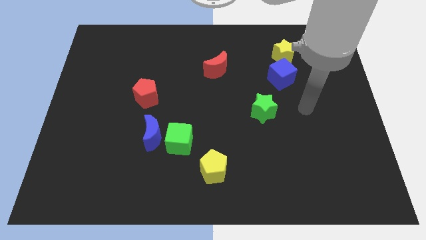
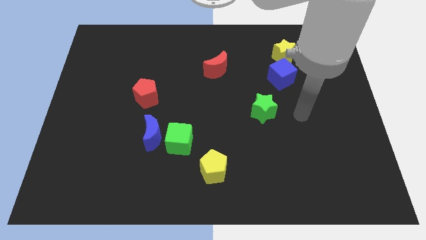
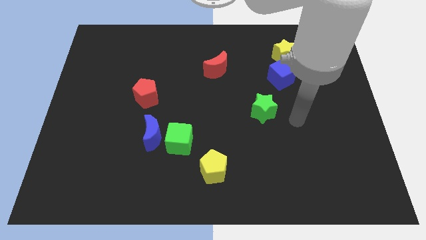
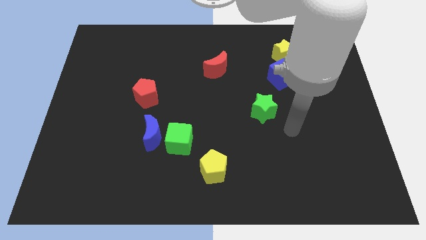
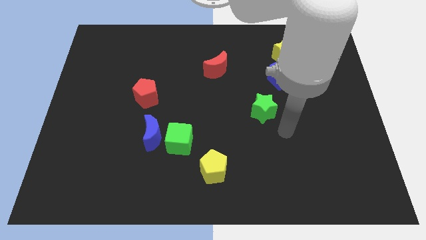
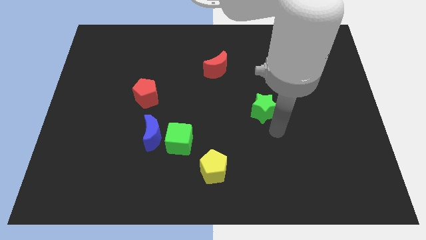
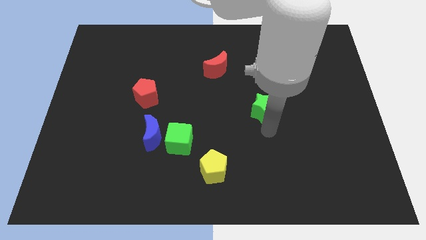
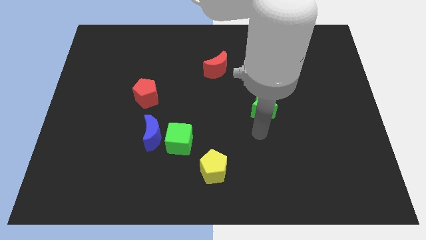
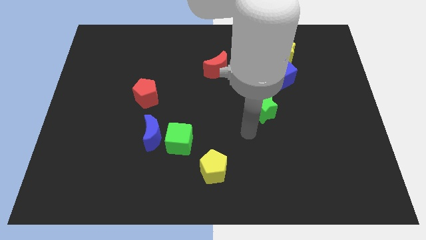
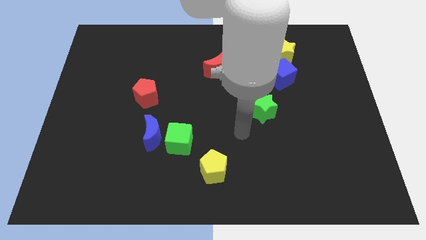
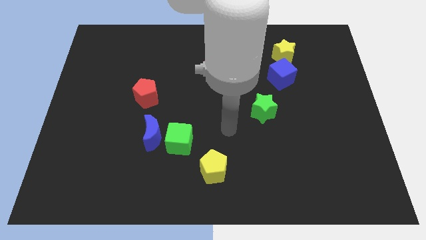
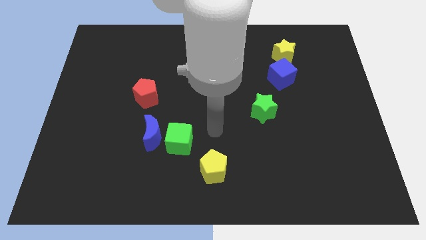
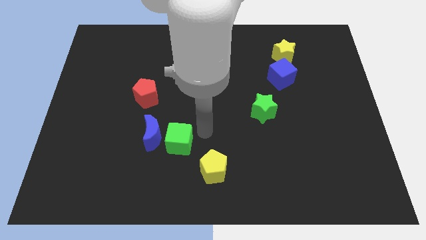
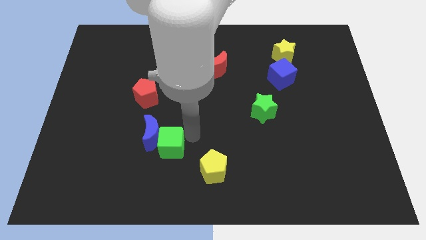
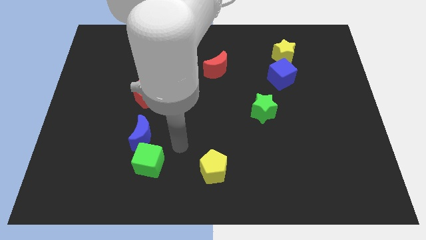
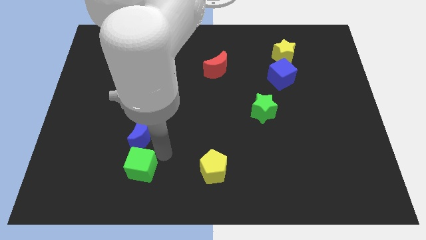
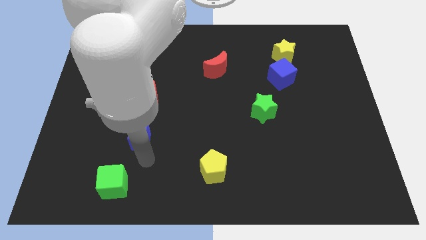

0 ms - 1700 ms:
move the blue moon away from the green cube

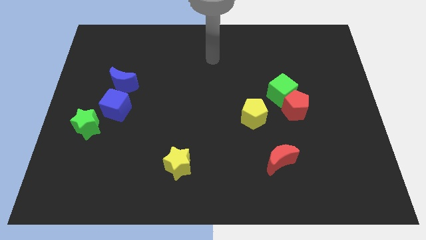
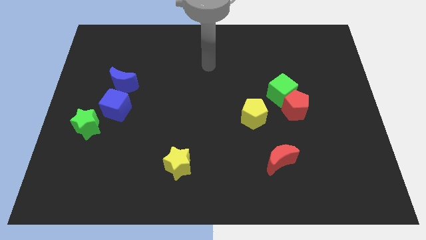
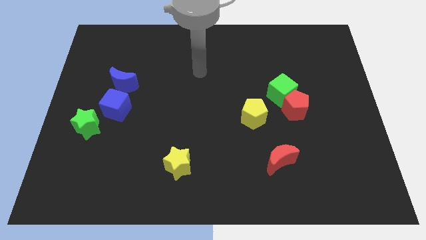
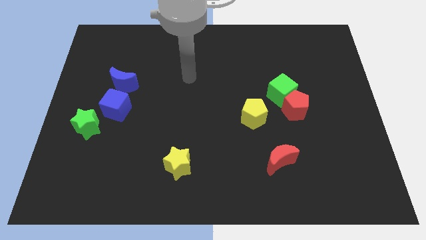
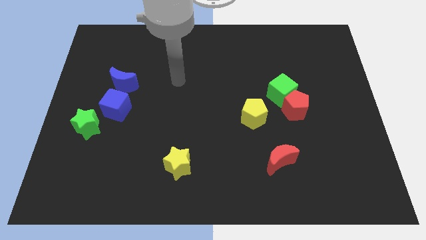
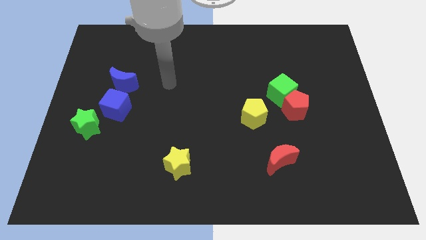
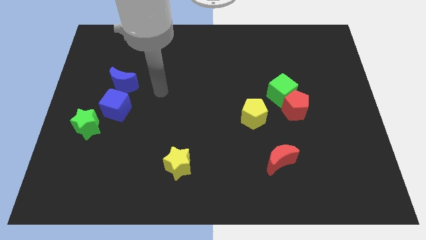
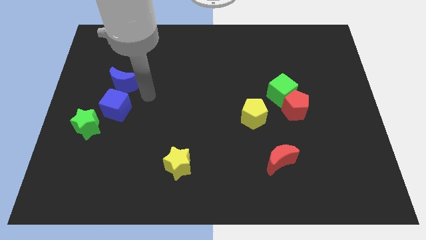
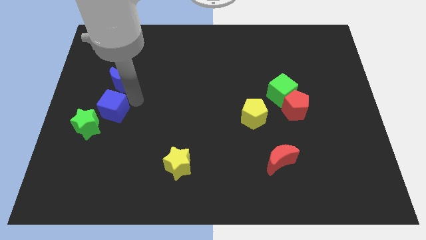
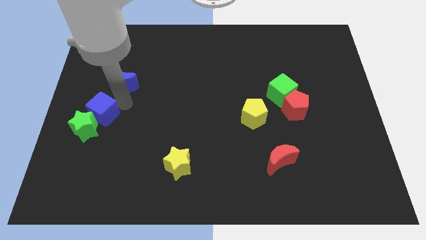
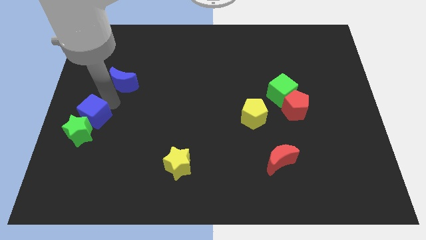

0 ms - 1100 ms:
move the blue moon away from the blue cube

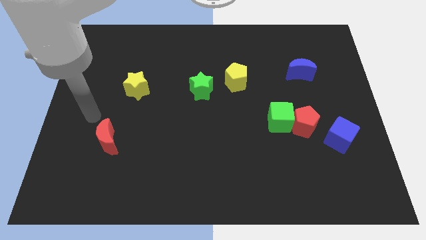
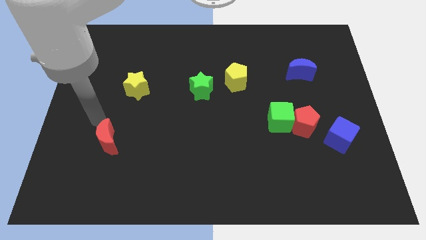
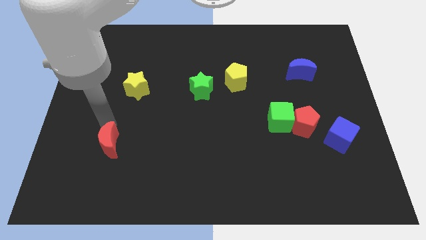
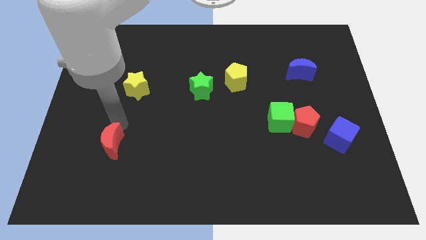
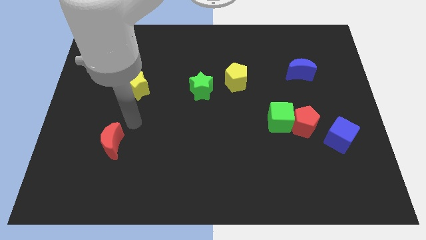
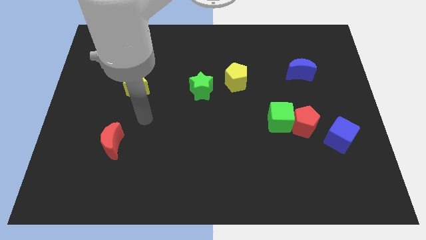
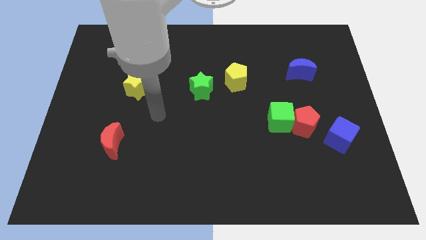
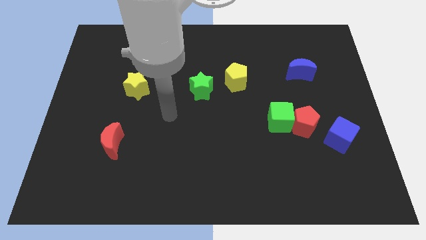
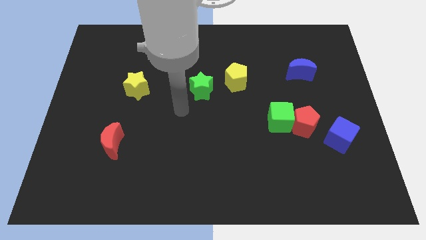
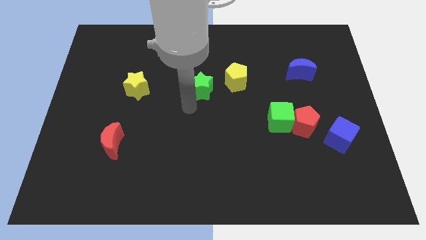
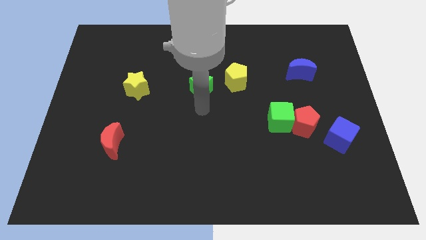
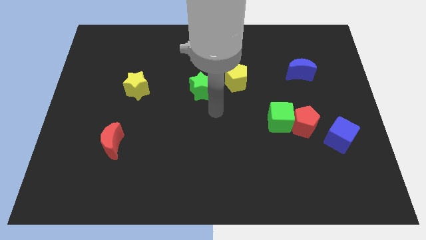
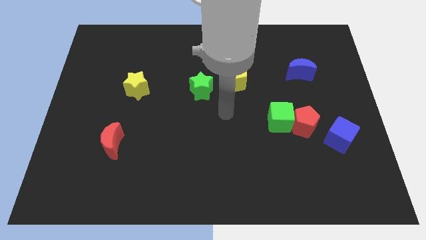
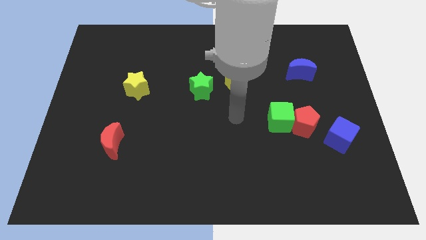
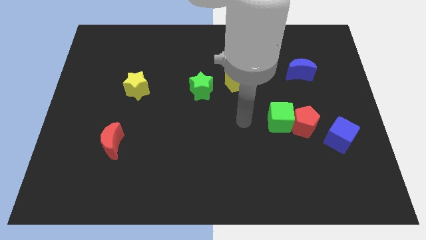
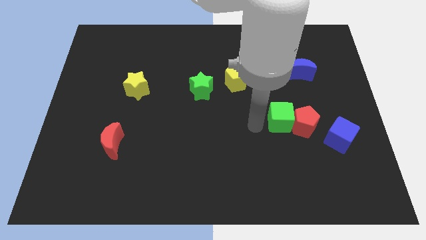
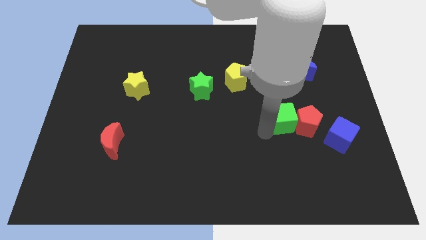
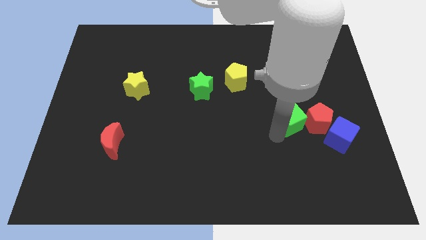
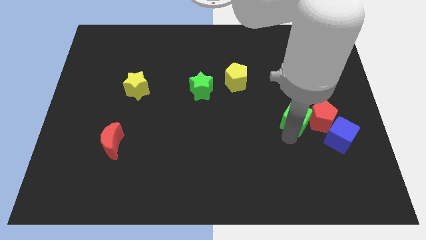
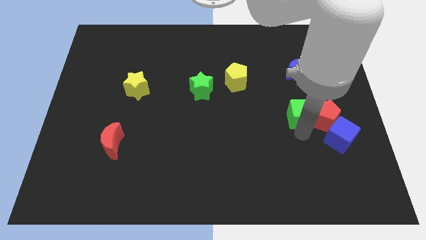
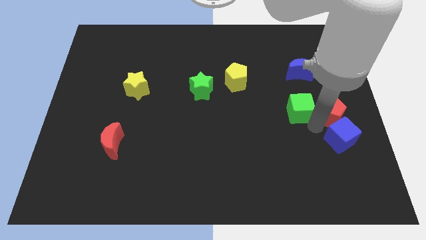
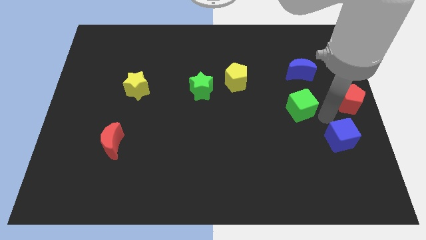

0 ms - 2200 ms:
separate the green cube from the red pentagon

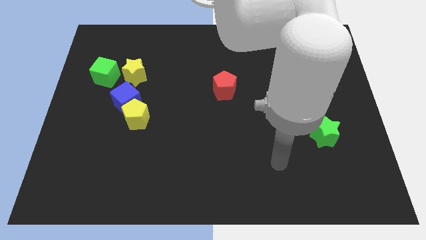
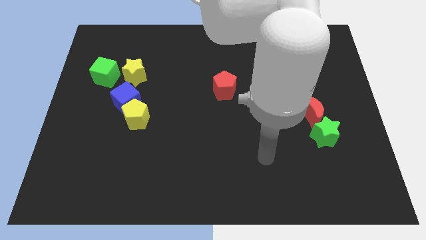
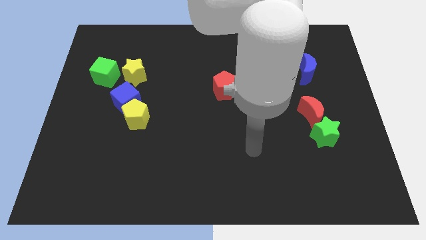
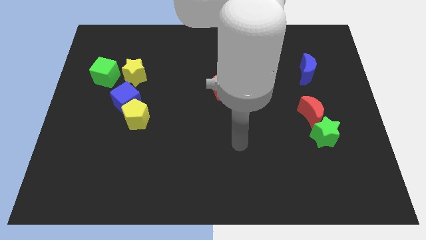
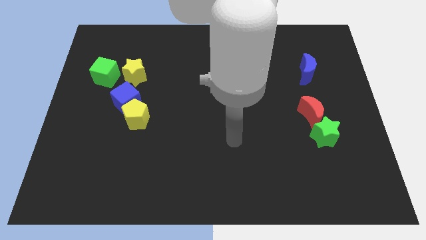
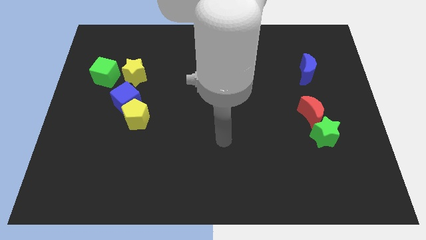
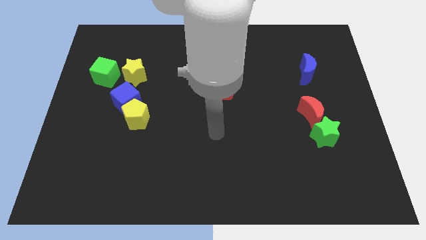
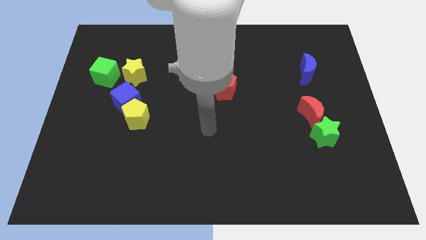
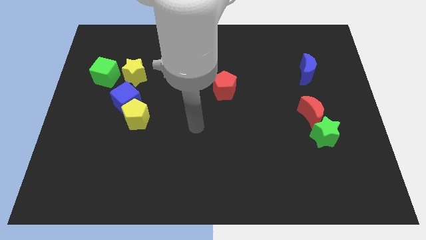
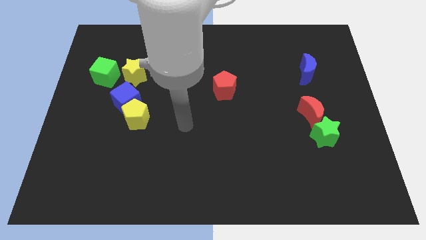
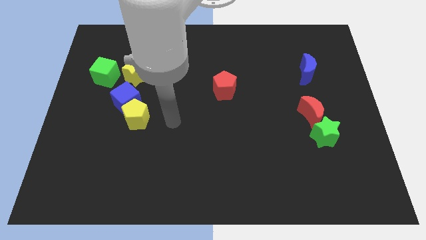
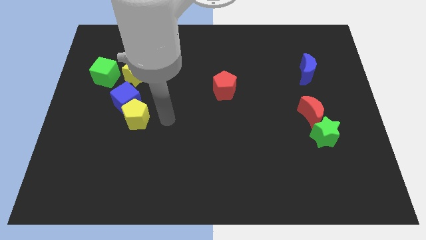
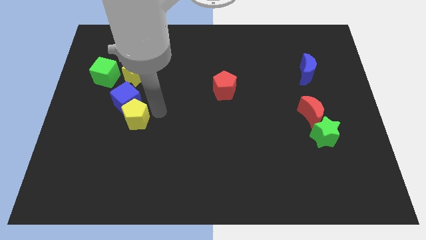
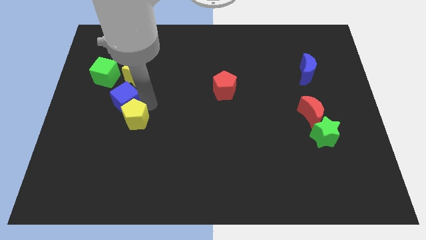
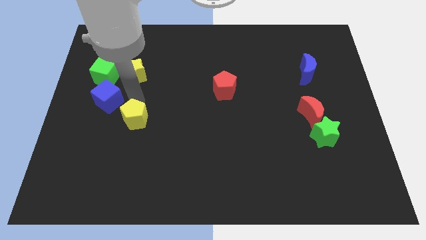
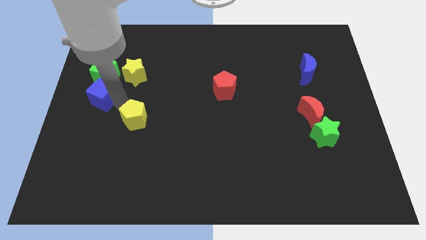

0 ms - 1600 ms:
separate the yellow pentagon from the blue cube

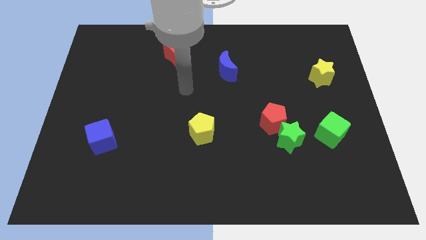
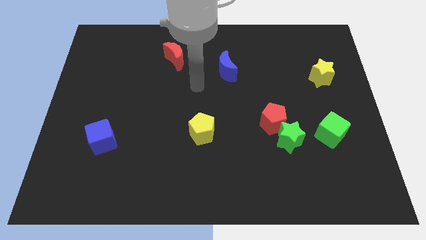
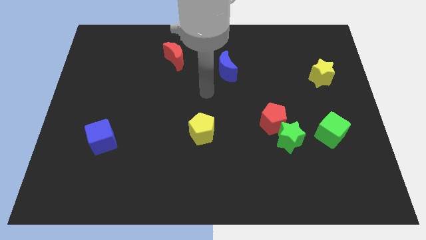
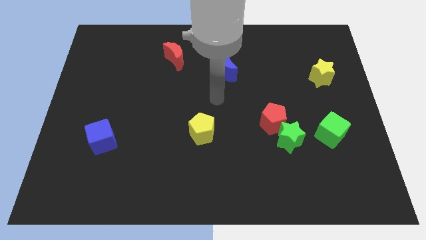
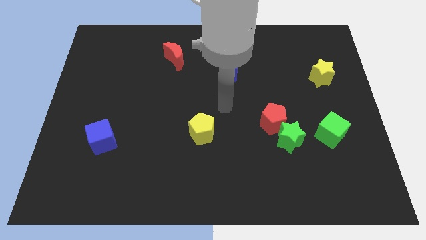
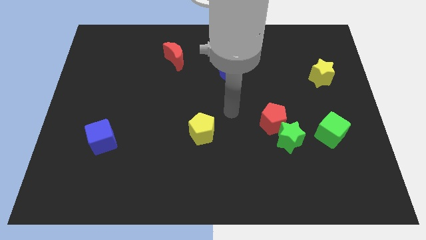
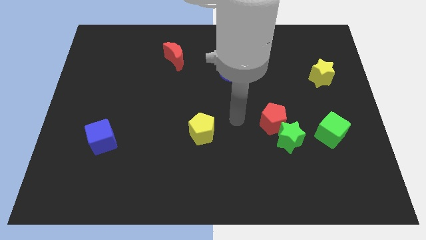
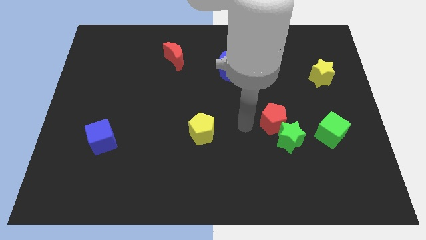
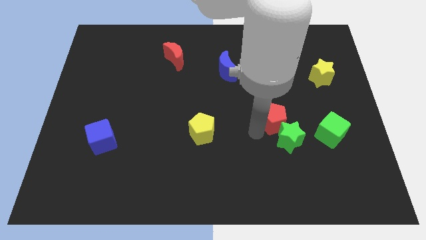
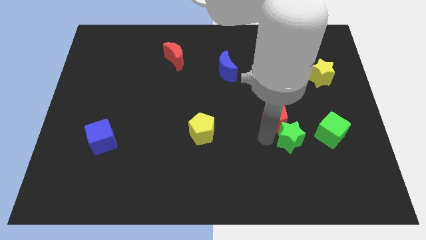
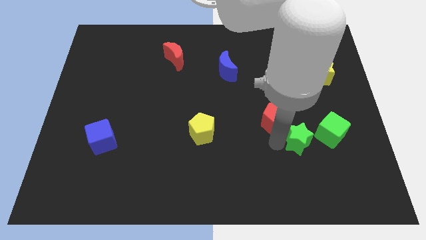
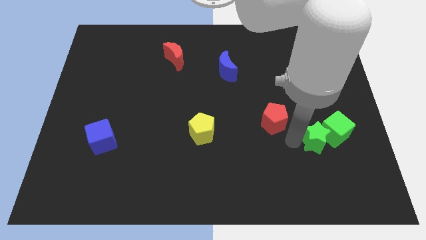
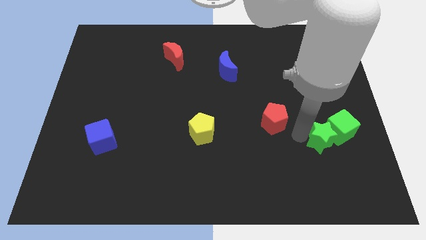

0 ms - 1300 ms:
pull the red pentagon apart from the green star

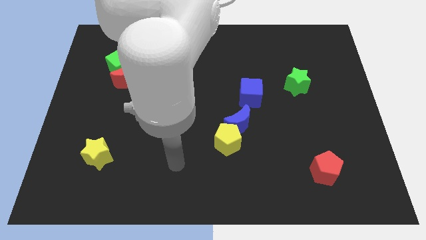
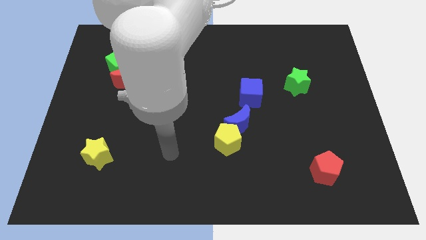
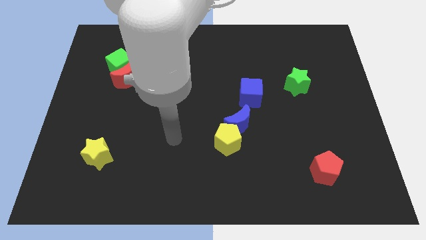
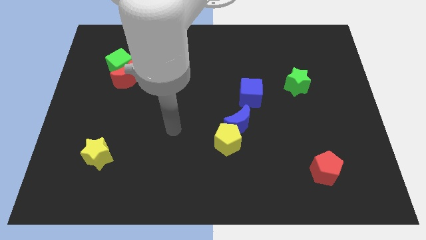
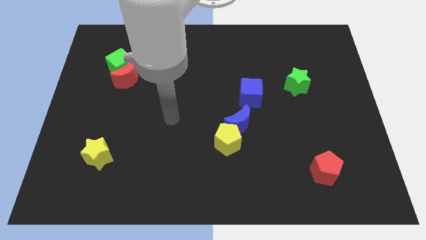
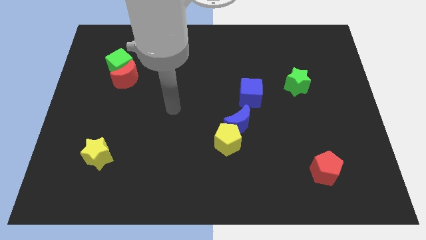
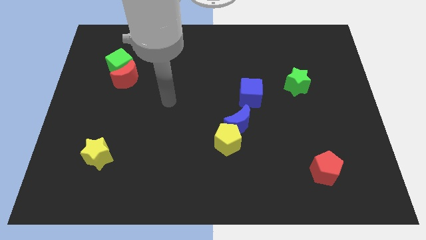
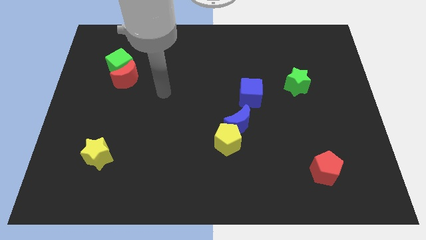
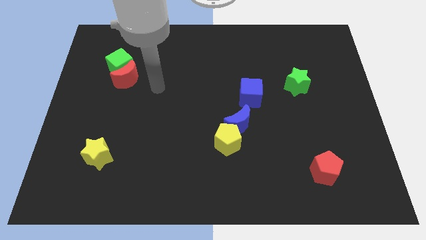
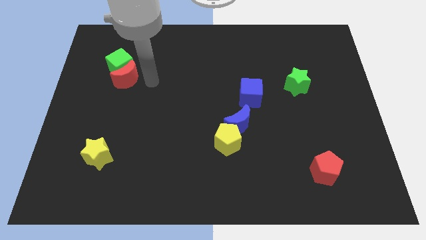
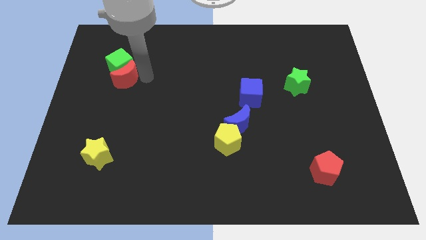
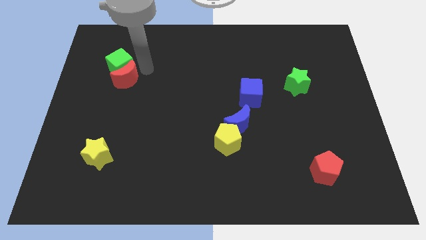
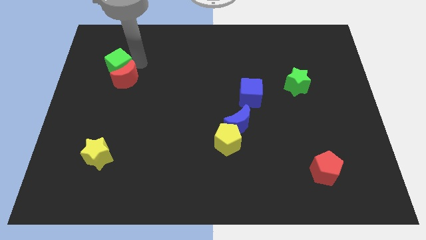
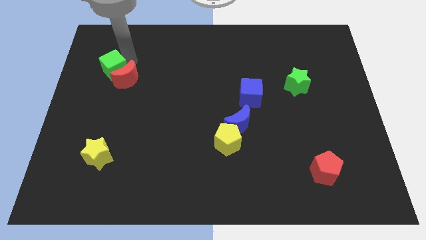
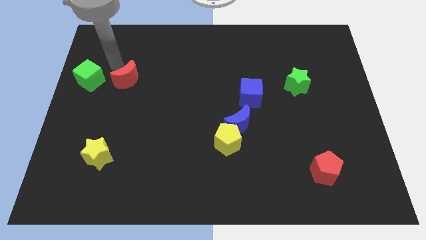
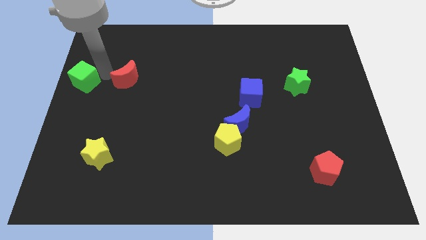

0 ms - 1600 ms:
pull the red moon apart from the green cube
